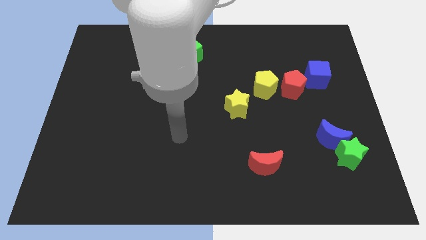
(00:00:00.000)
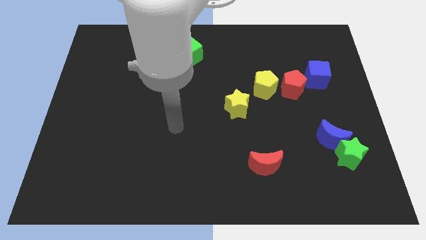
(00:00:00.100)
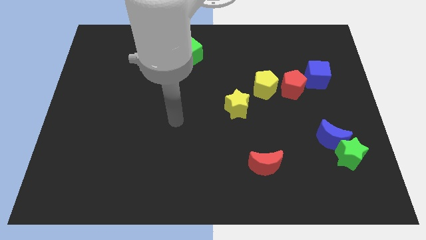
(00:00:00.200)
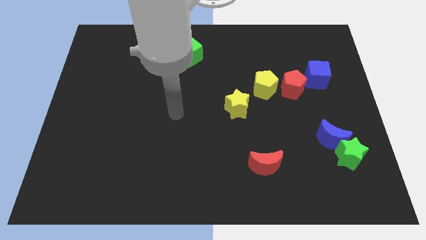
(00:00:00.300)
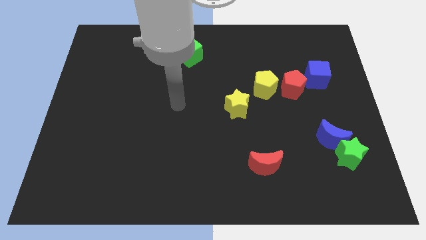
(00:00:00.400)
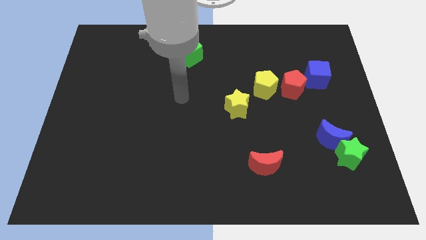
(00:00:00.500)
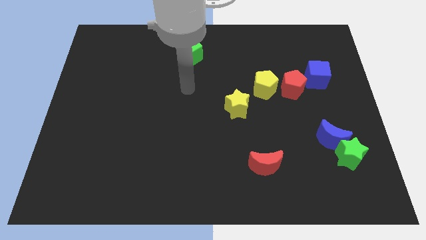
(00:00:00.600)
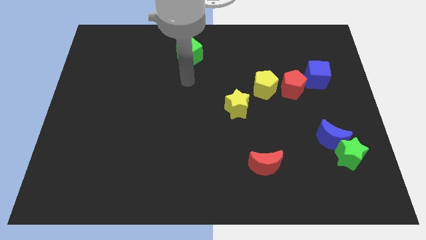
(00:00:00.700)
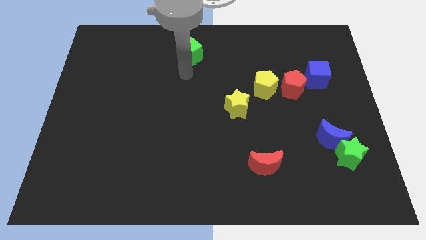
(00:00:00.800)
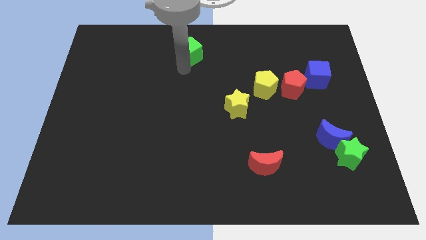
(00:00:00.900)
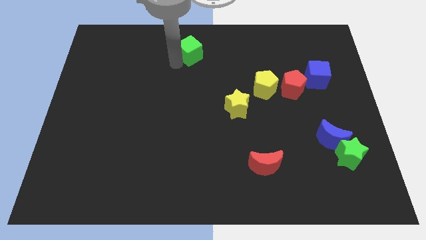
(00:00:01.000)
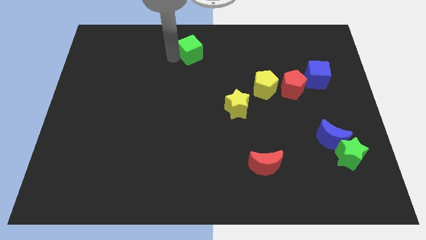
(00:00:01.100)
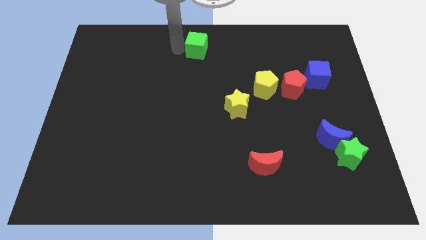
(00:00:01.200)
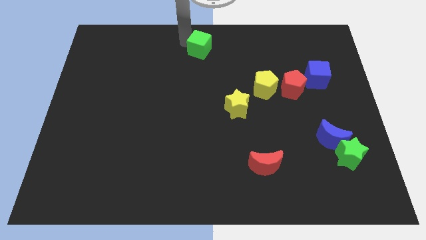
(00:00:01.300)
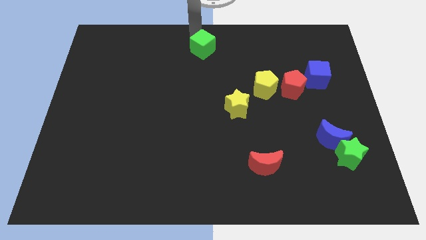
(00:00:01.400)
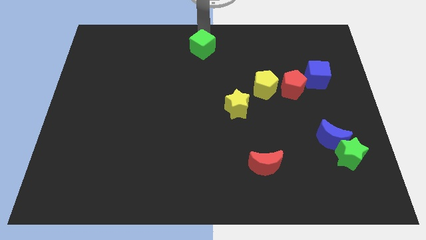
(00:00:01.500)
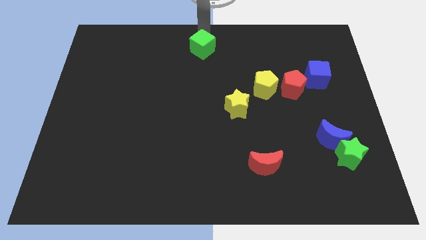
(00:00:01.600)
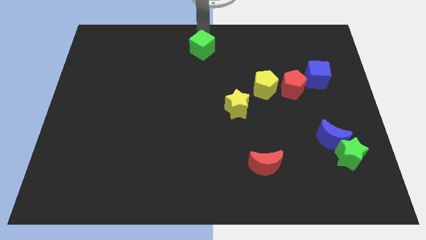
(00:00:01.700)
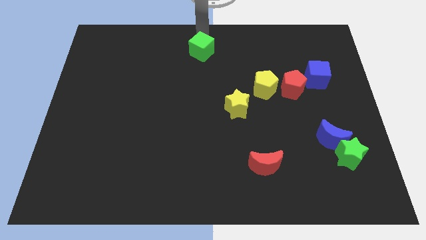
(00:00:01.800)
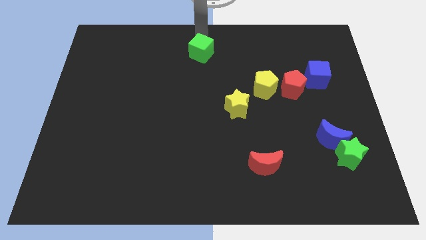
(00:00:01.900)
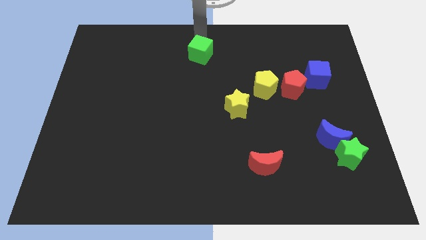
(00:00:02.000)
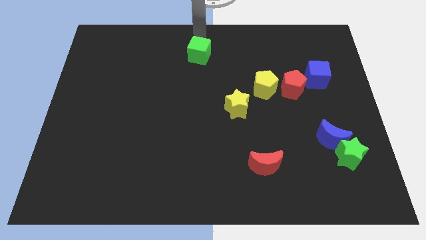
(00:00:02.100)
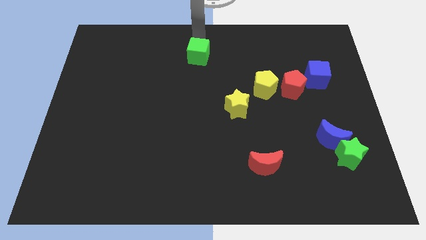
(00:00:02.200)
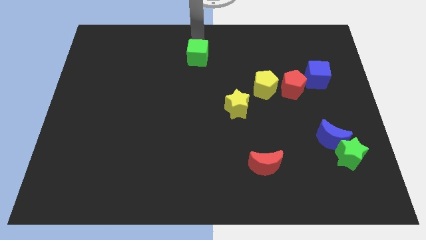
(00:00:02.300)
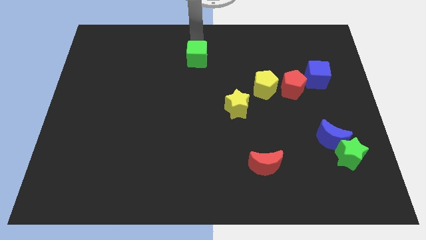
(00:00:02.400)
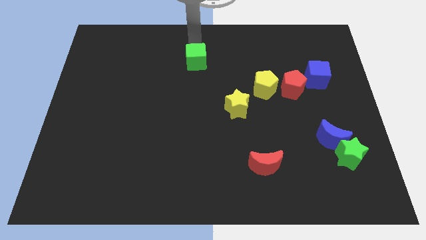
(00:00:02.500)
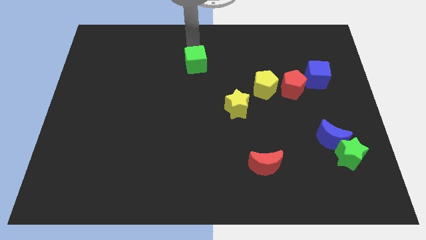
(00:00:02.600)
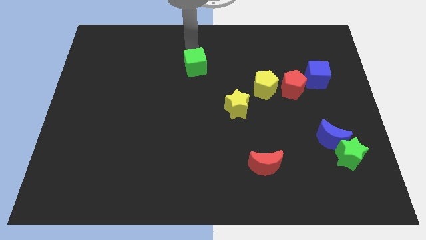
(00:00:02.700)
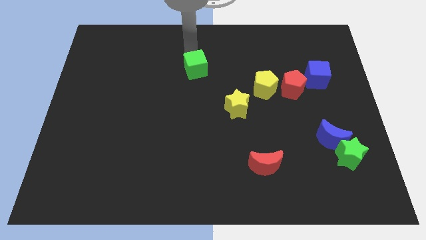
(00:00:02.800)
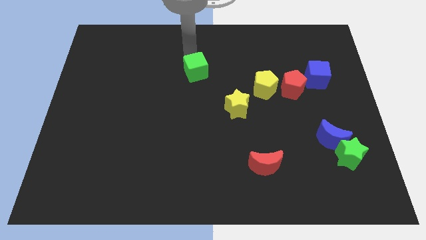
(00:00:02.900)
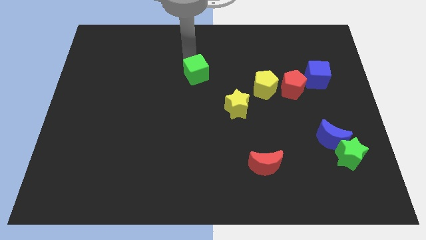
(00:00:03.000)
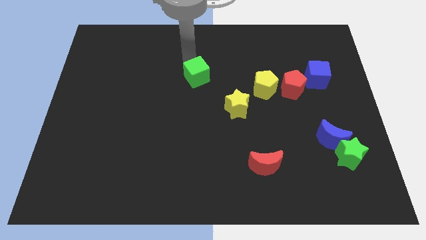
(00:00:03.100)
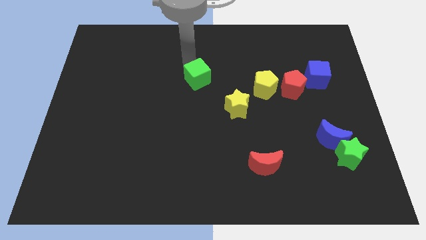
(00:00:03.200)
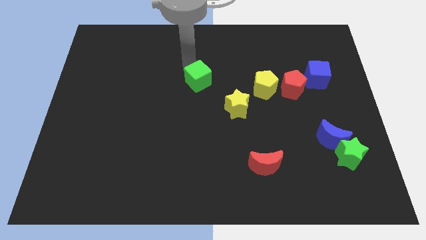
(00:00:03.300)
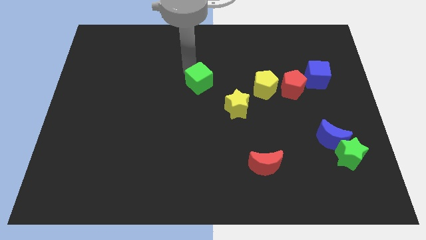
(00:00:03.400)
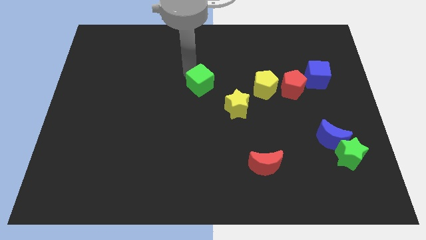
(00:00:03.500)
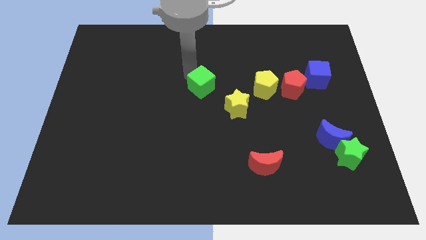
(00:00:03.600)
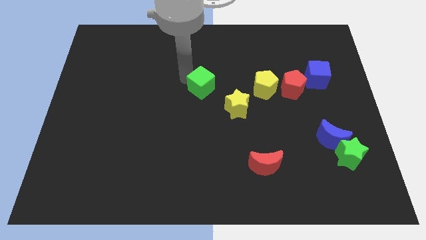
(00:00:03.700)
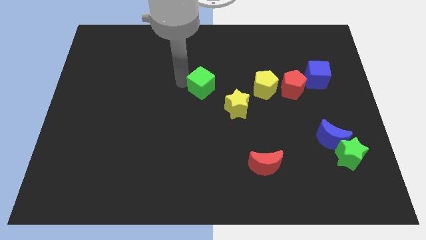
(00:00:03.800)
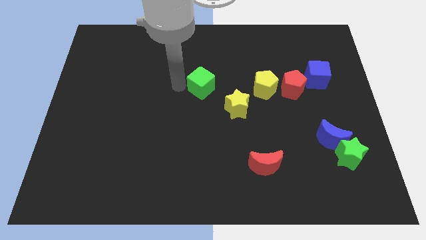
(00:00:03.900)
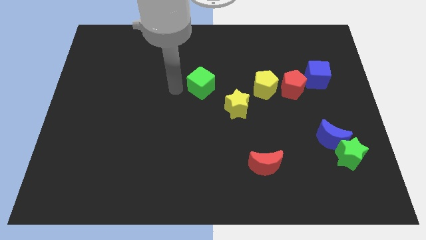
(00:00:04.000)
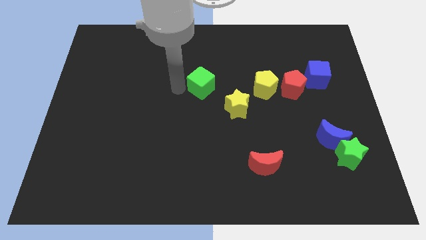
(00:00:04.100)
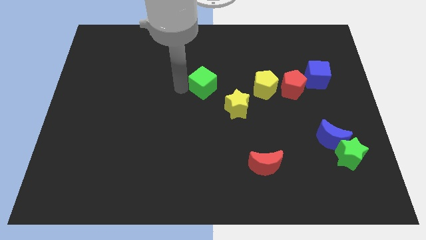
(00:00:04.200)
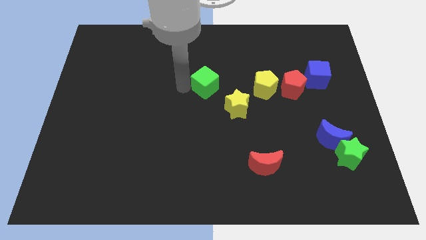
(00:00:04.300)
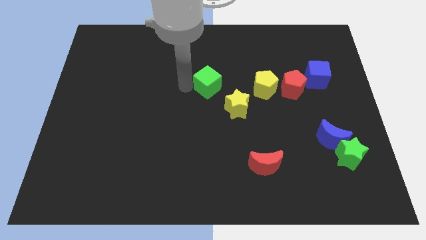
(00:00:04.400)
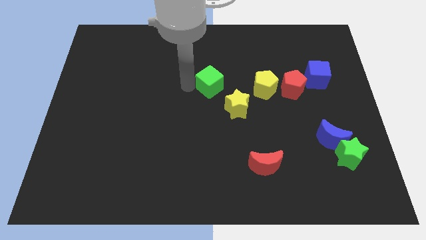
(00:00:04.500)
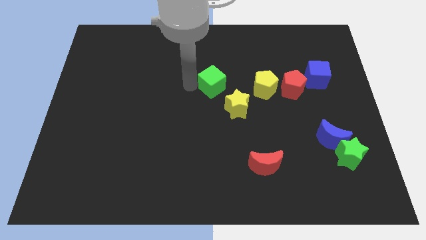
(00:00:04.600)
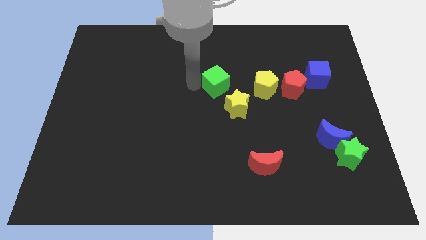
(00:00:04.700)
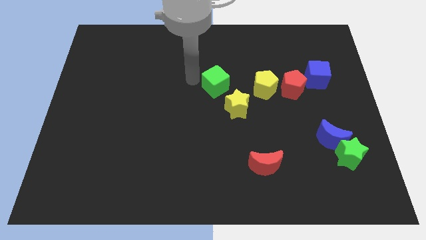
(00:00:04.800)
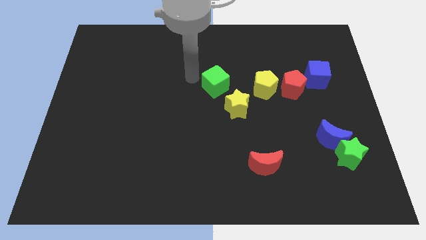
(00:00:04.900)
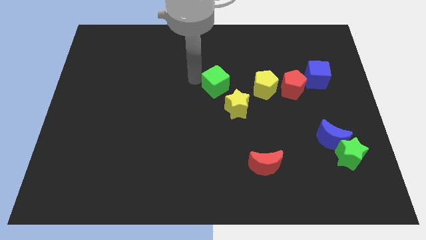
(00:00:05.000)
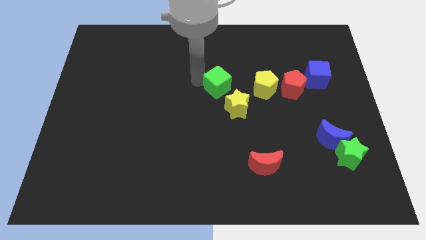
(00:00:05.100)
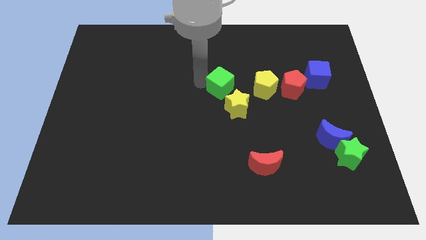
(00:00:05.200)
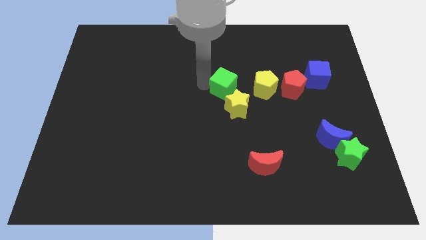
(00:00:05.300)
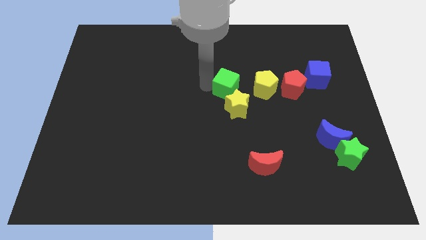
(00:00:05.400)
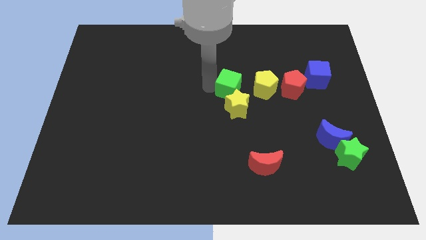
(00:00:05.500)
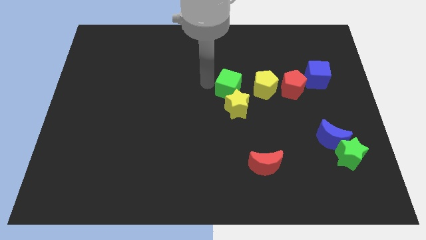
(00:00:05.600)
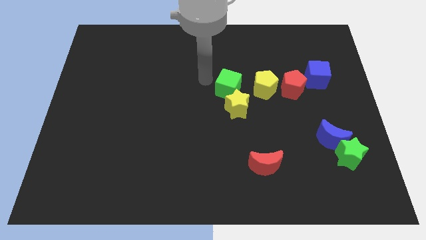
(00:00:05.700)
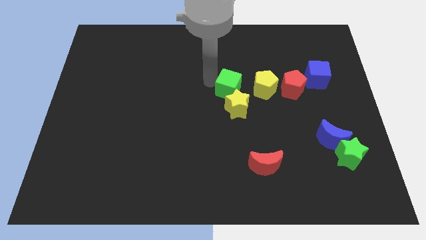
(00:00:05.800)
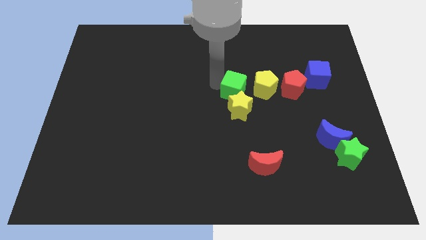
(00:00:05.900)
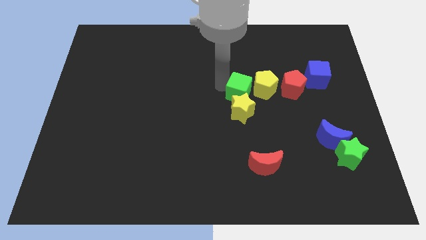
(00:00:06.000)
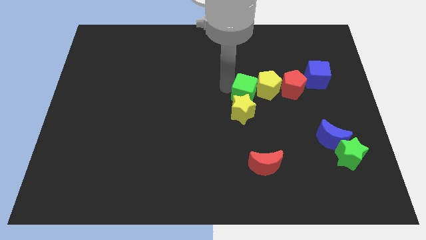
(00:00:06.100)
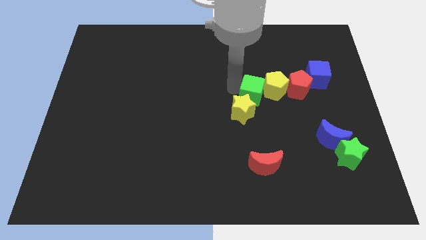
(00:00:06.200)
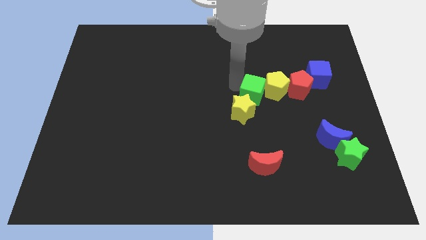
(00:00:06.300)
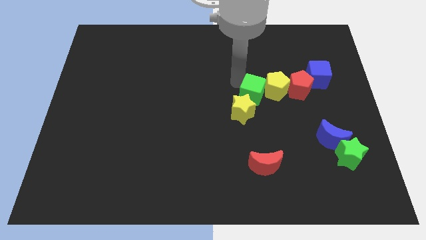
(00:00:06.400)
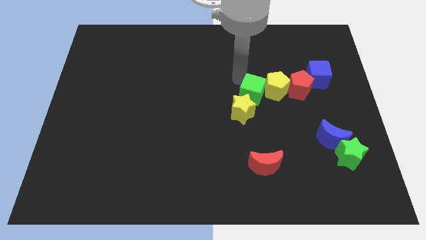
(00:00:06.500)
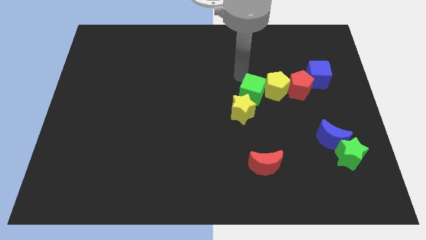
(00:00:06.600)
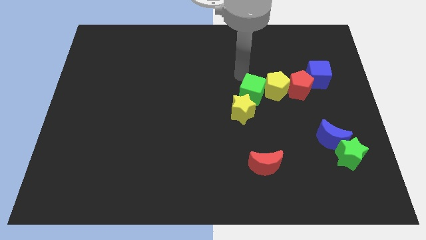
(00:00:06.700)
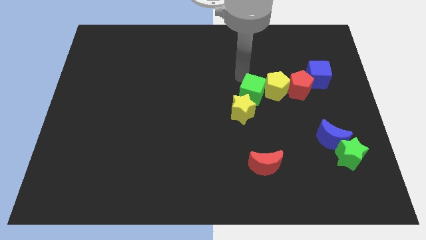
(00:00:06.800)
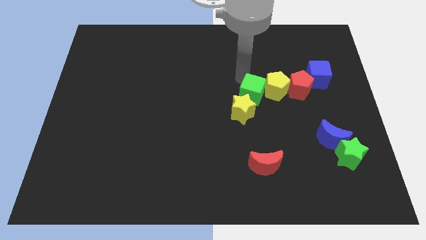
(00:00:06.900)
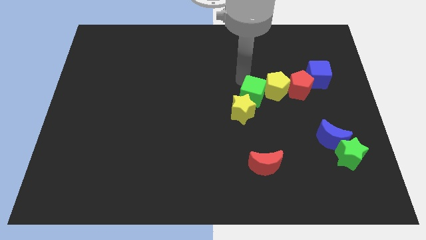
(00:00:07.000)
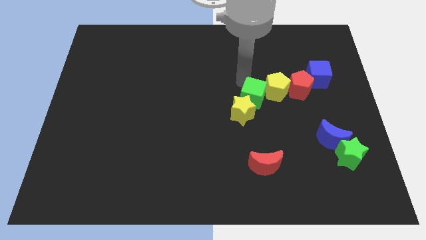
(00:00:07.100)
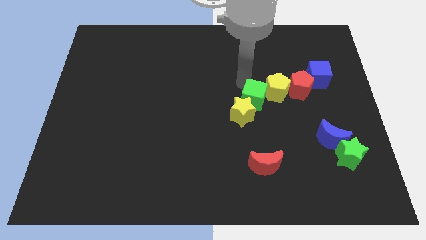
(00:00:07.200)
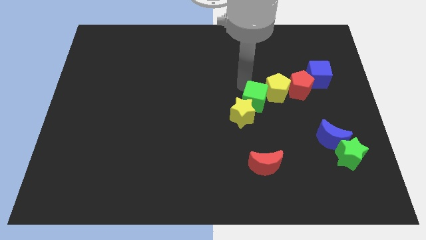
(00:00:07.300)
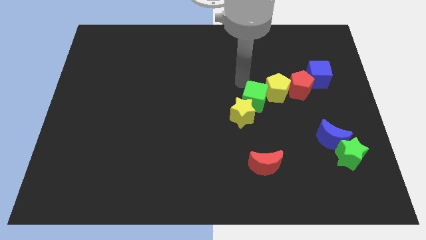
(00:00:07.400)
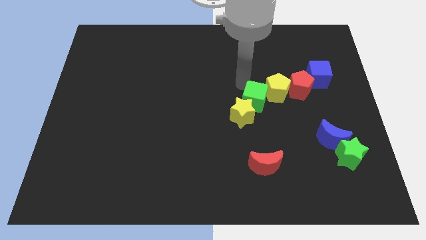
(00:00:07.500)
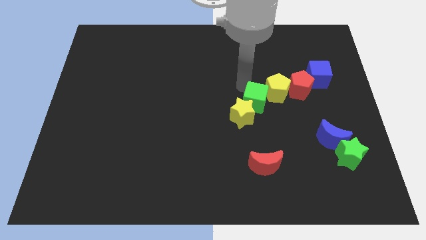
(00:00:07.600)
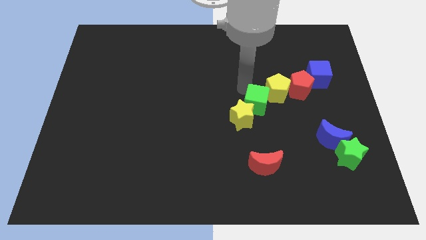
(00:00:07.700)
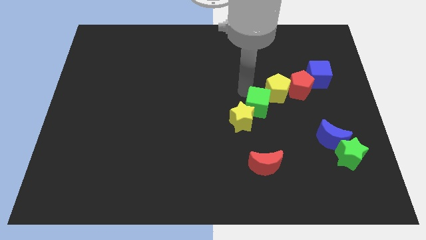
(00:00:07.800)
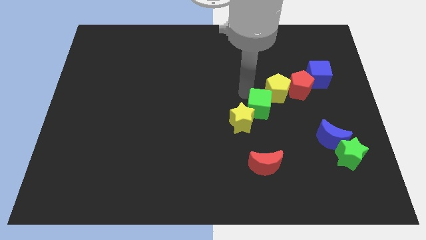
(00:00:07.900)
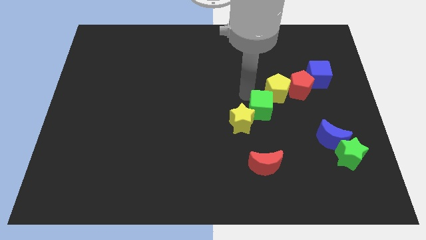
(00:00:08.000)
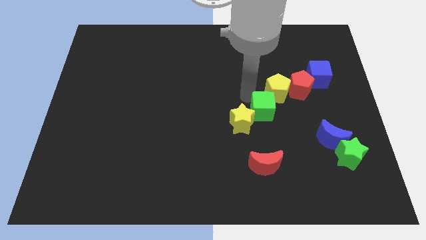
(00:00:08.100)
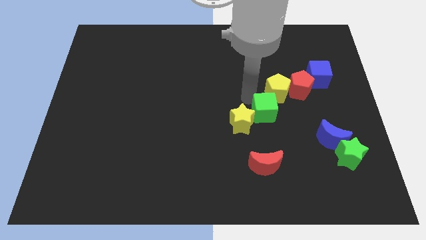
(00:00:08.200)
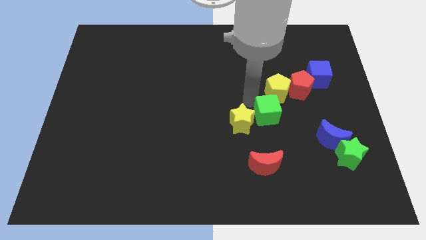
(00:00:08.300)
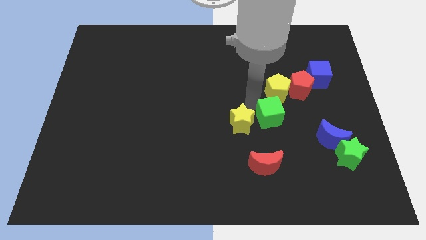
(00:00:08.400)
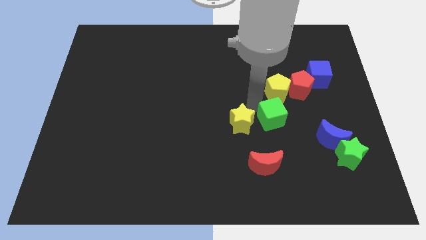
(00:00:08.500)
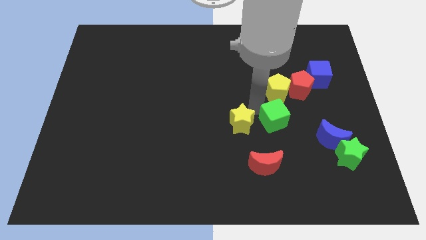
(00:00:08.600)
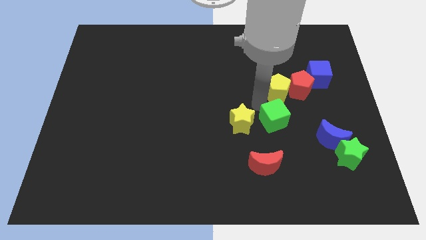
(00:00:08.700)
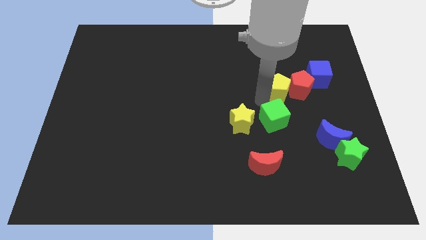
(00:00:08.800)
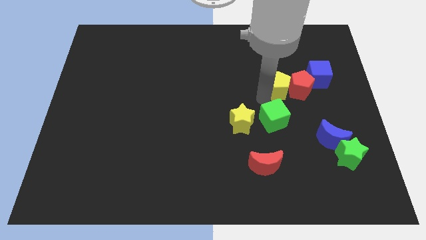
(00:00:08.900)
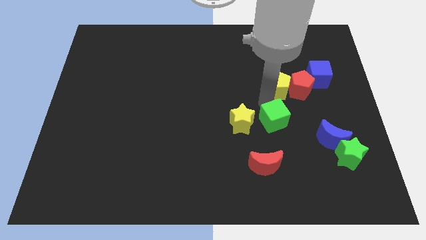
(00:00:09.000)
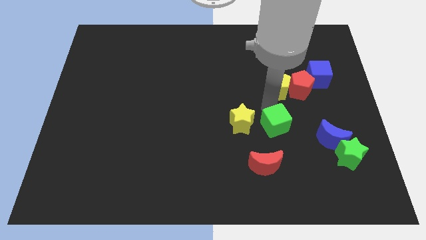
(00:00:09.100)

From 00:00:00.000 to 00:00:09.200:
put the green cube to the left of the blue moon
